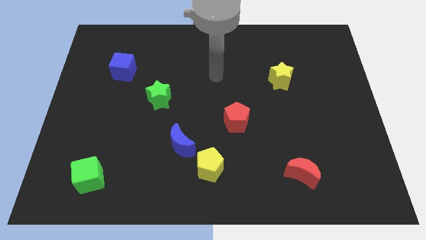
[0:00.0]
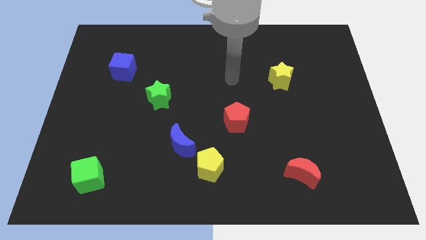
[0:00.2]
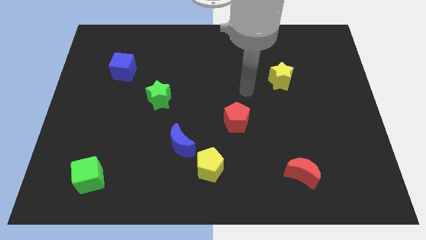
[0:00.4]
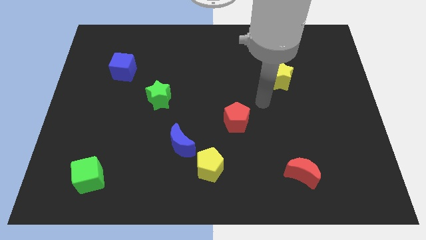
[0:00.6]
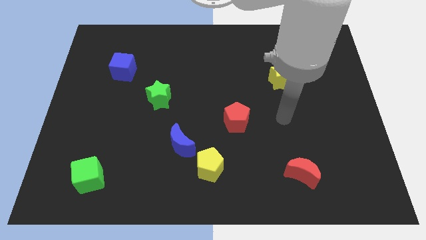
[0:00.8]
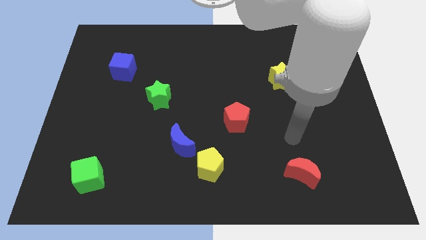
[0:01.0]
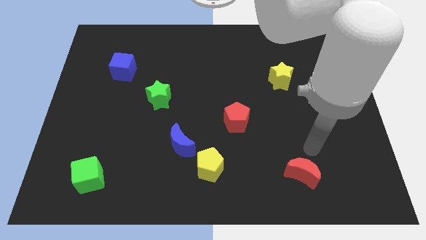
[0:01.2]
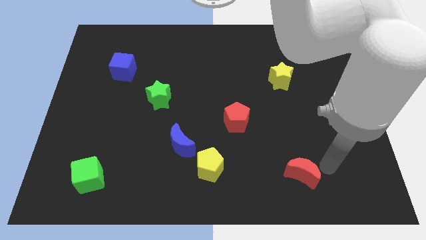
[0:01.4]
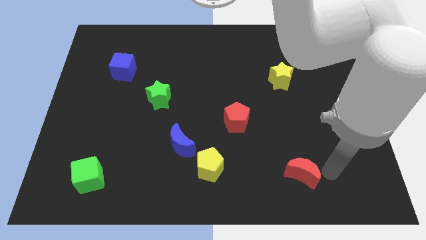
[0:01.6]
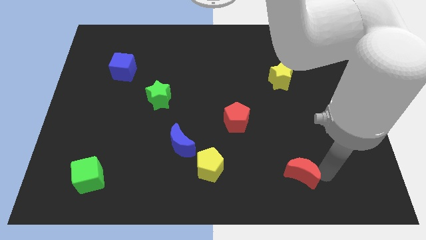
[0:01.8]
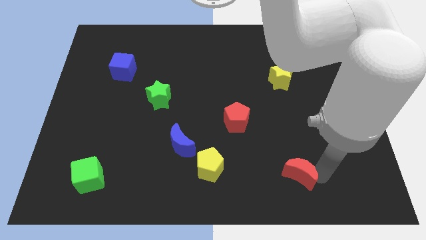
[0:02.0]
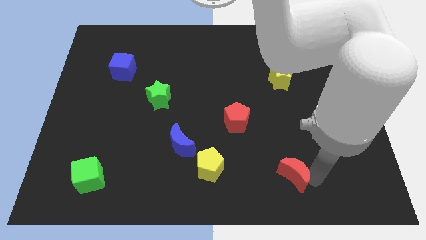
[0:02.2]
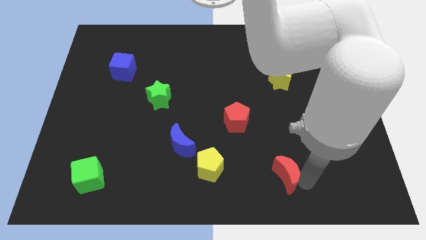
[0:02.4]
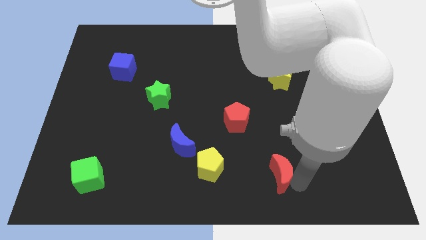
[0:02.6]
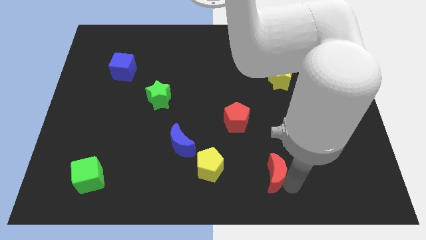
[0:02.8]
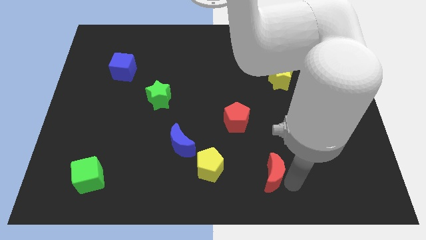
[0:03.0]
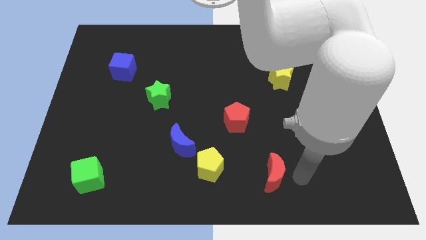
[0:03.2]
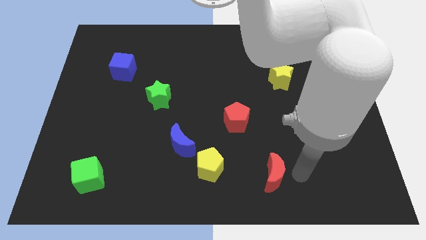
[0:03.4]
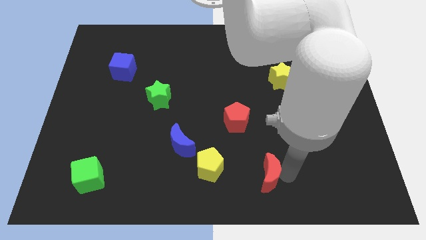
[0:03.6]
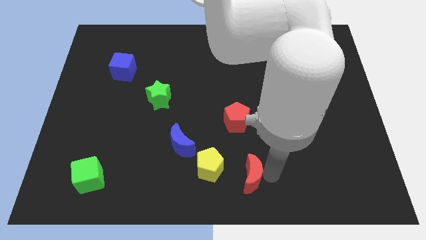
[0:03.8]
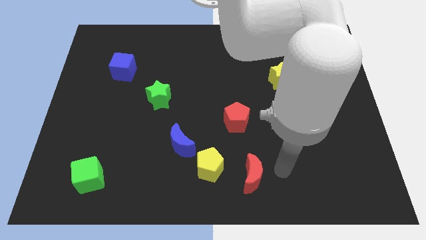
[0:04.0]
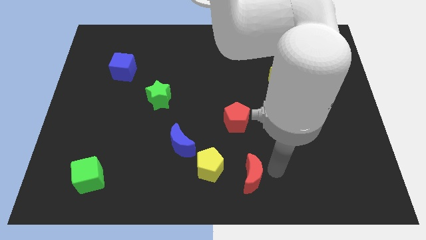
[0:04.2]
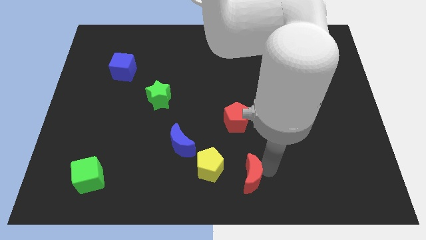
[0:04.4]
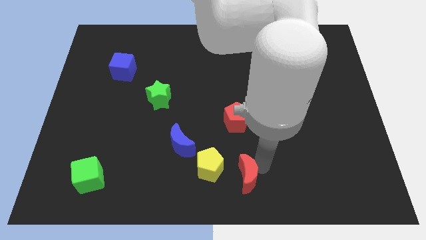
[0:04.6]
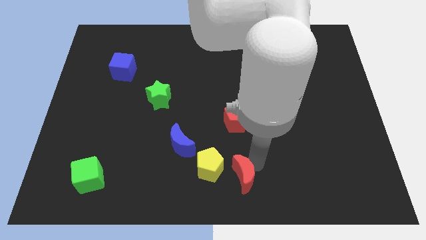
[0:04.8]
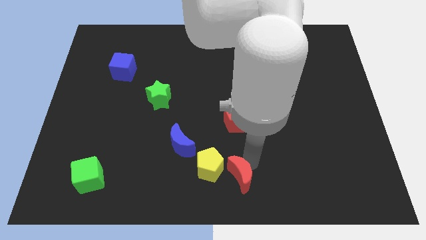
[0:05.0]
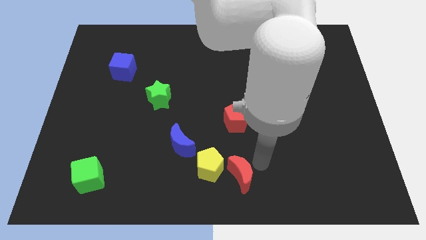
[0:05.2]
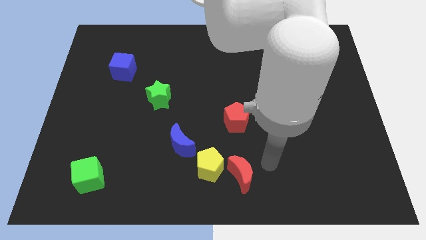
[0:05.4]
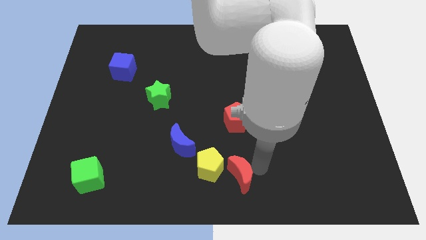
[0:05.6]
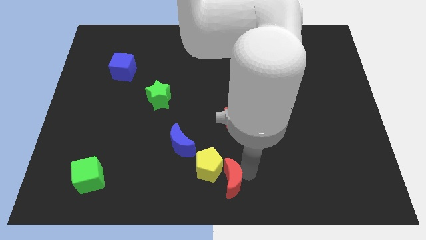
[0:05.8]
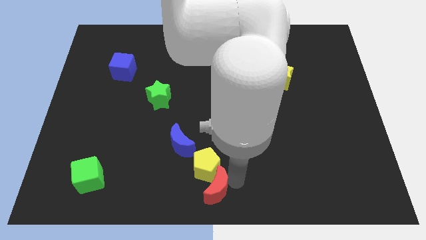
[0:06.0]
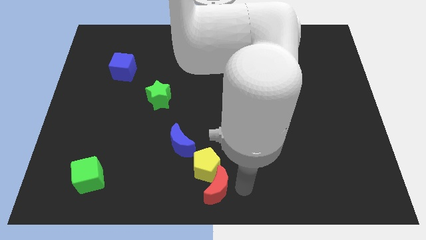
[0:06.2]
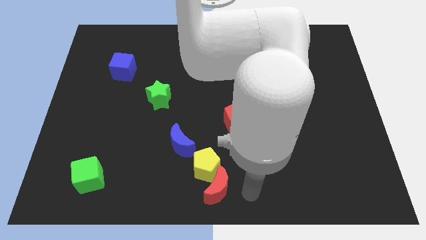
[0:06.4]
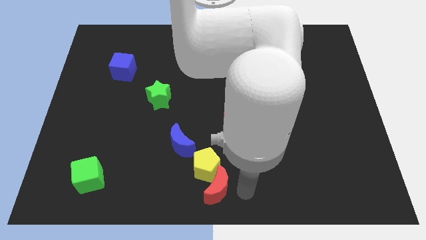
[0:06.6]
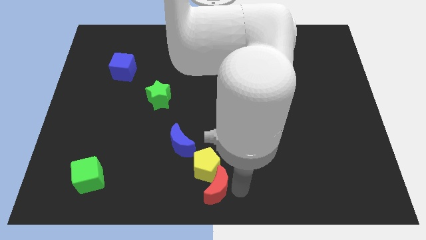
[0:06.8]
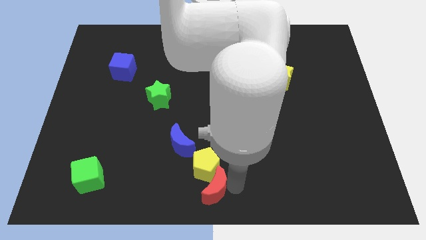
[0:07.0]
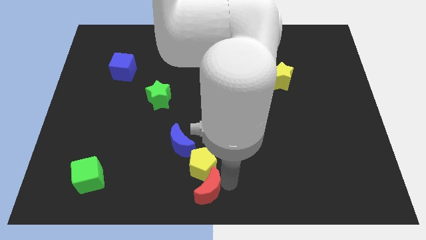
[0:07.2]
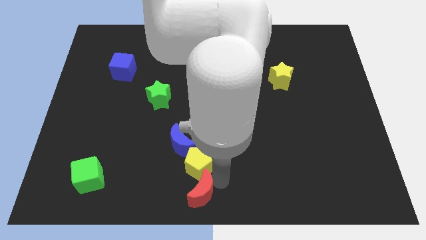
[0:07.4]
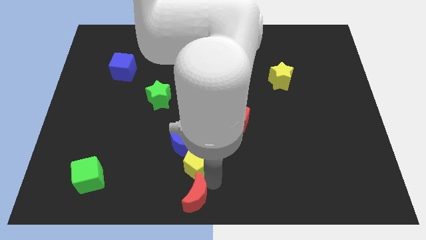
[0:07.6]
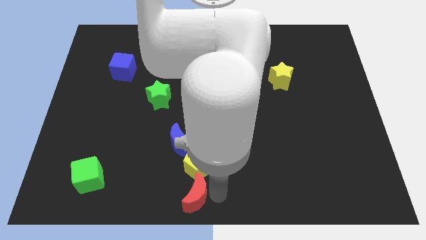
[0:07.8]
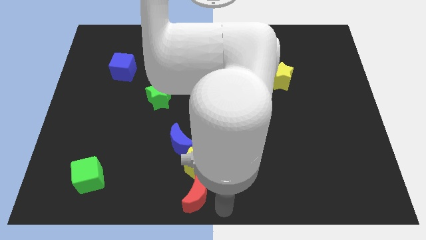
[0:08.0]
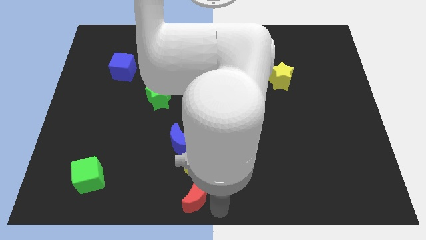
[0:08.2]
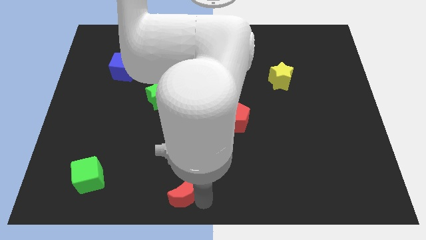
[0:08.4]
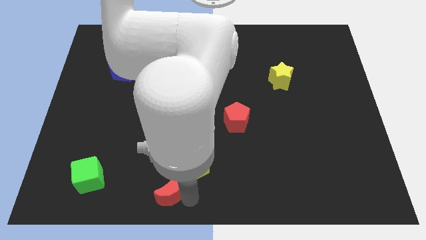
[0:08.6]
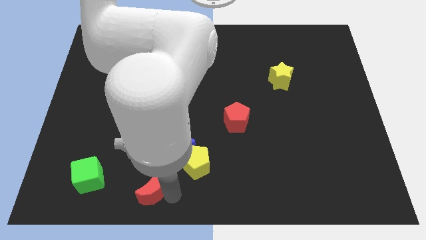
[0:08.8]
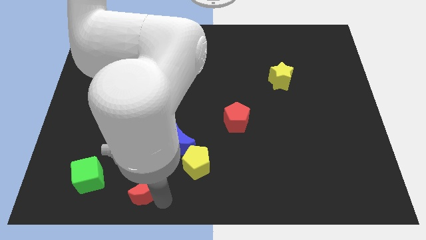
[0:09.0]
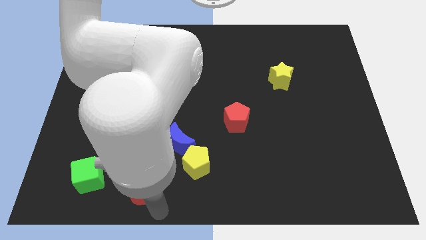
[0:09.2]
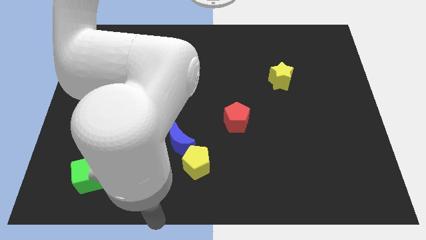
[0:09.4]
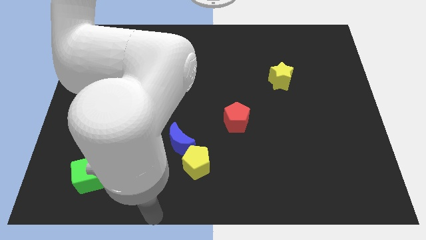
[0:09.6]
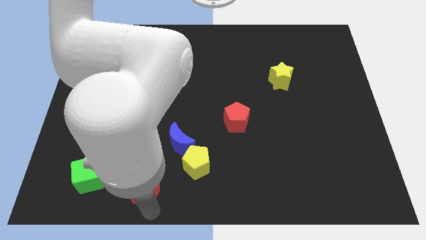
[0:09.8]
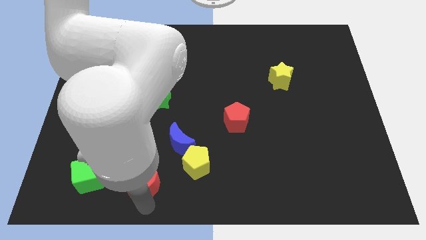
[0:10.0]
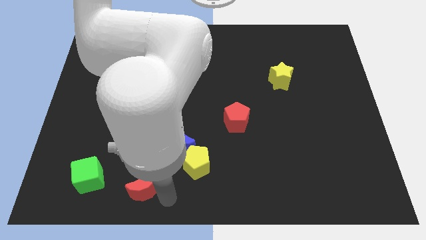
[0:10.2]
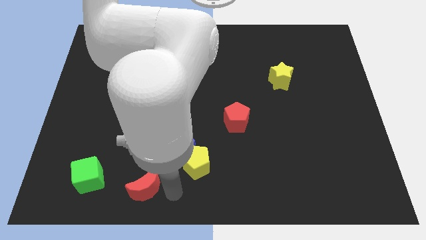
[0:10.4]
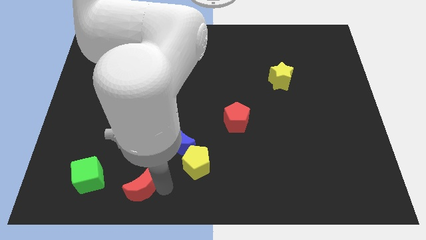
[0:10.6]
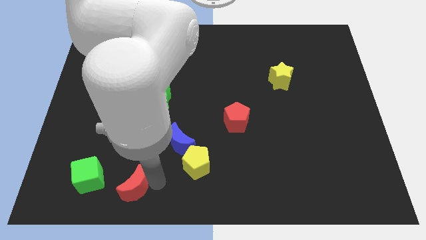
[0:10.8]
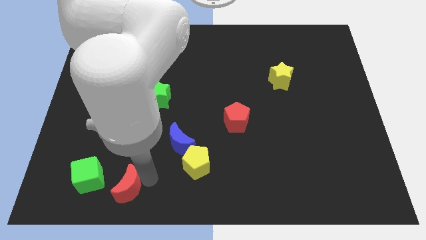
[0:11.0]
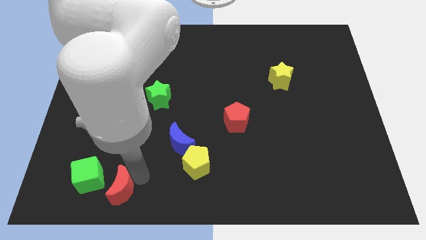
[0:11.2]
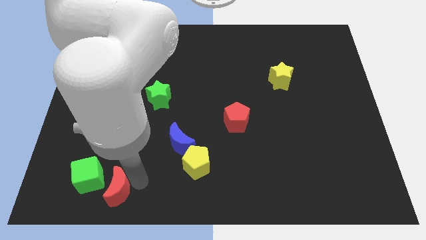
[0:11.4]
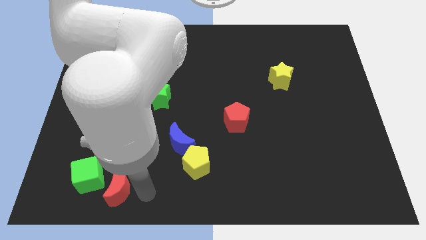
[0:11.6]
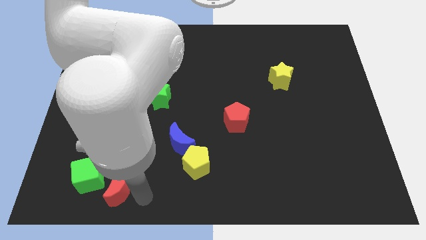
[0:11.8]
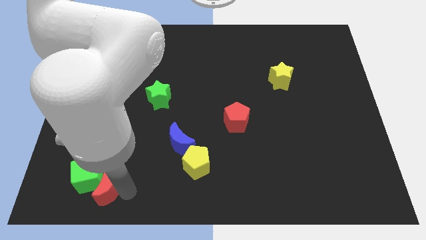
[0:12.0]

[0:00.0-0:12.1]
slide the red moon next to the green cube
